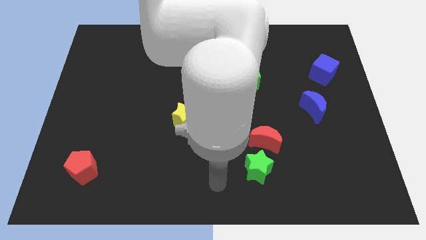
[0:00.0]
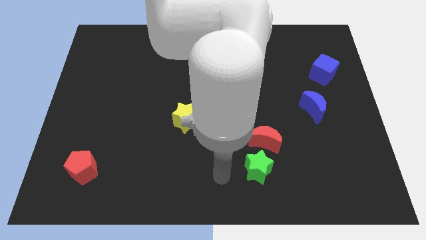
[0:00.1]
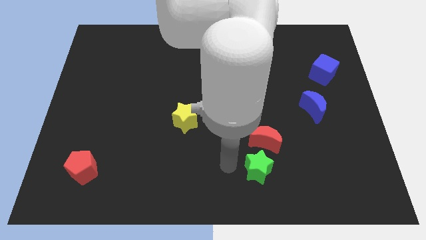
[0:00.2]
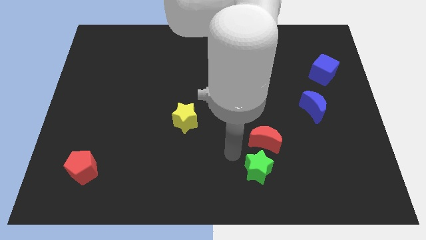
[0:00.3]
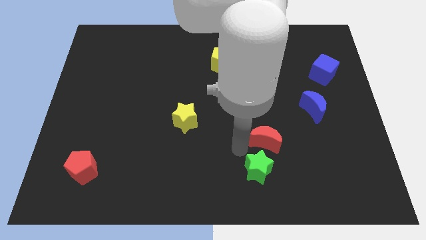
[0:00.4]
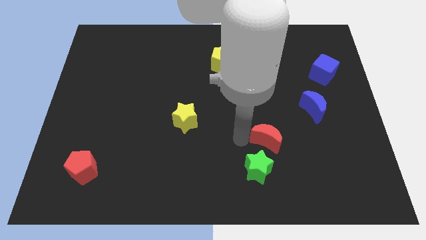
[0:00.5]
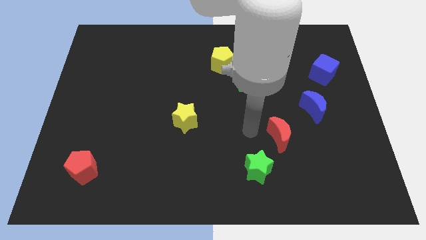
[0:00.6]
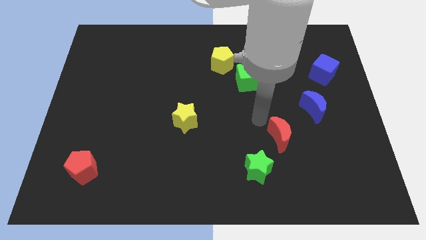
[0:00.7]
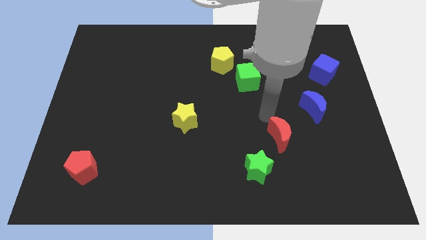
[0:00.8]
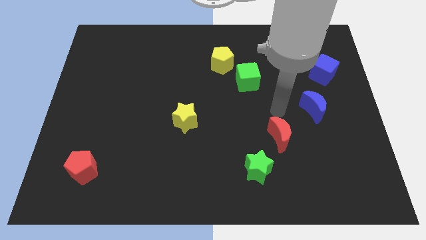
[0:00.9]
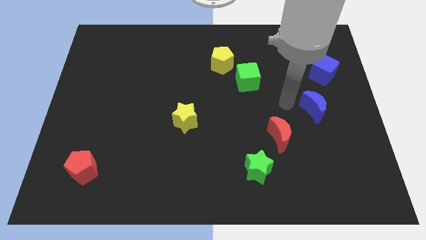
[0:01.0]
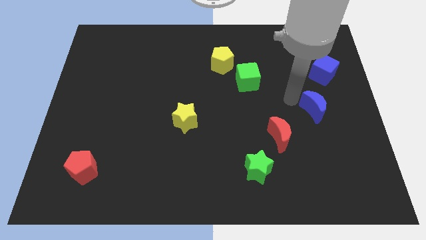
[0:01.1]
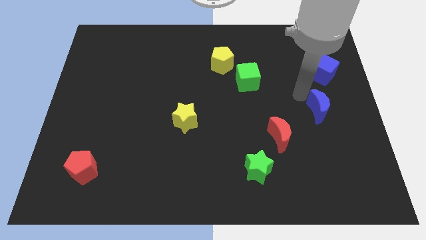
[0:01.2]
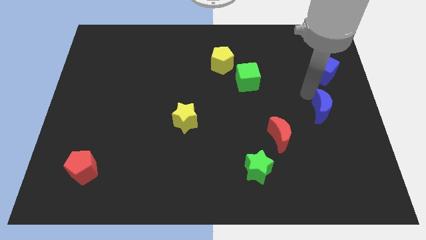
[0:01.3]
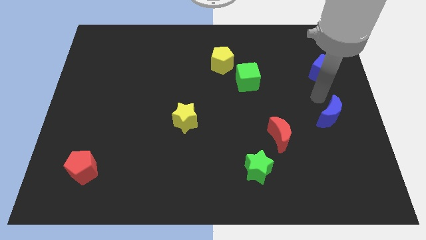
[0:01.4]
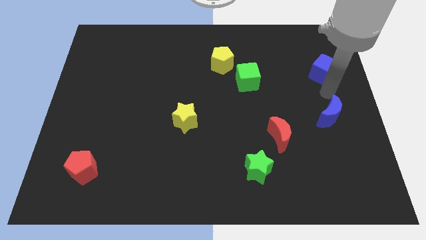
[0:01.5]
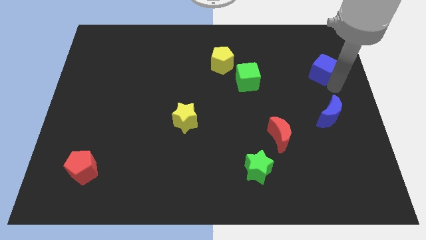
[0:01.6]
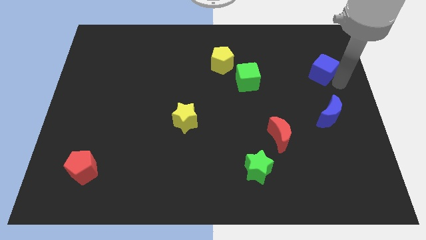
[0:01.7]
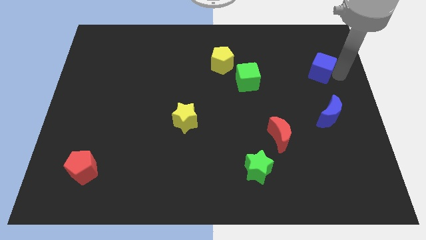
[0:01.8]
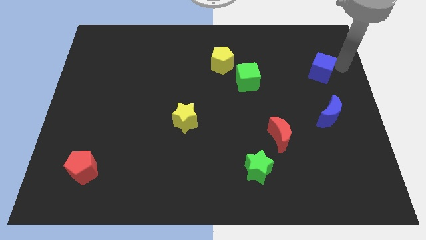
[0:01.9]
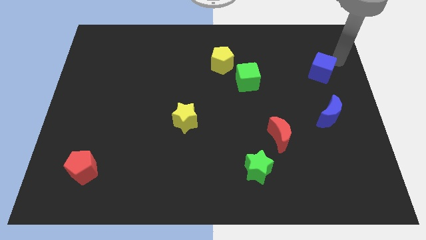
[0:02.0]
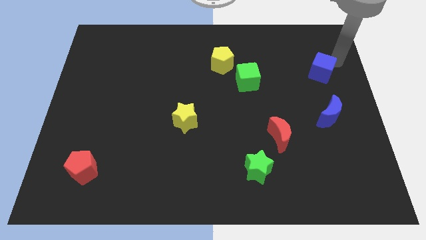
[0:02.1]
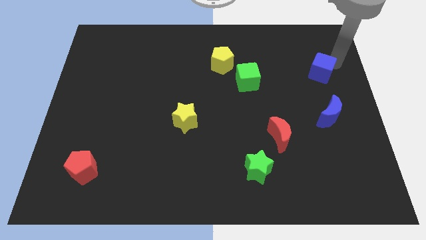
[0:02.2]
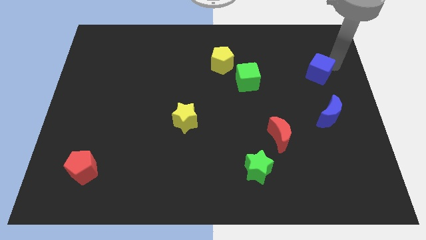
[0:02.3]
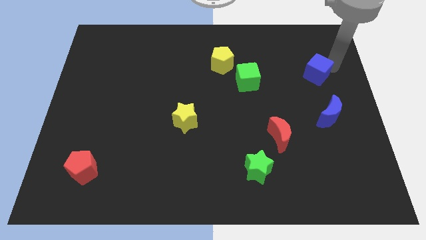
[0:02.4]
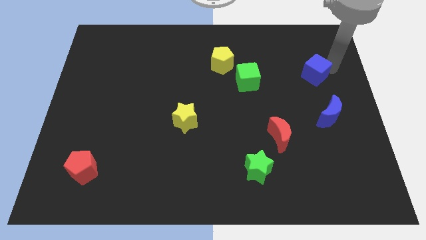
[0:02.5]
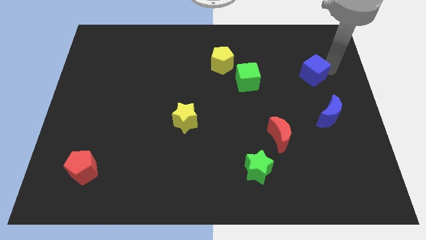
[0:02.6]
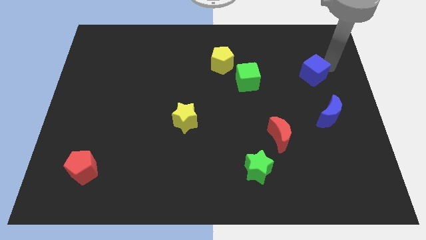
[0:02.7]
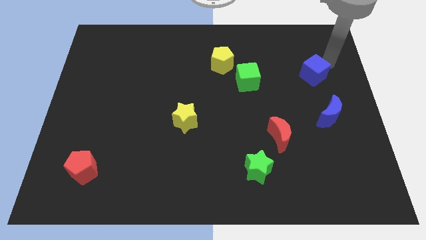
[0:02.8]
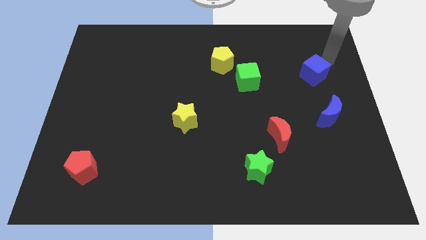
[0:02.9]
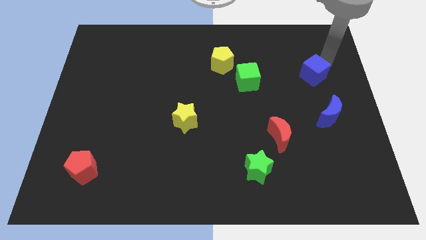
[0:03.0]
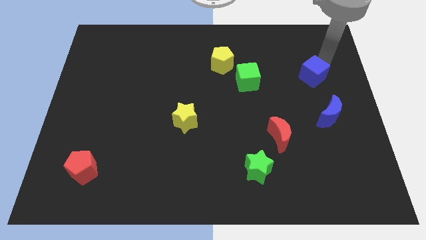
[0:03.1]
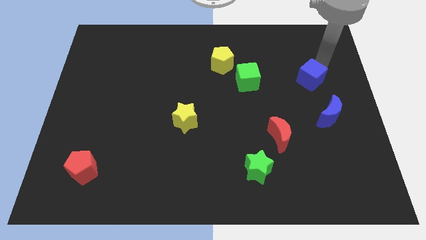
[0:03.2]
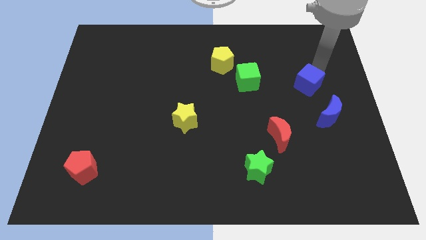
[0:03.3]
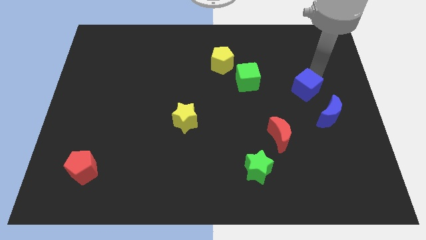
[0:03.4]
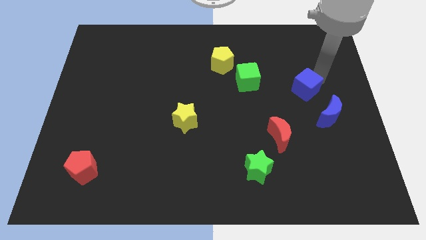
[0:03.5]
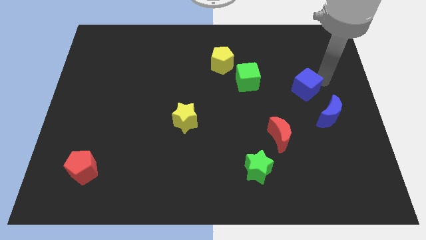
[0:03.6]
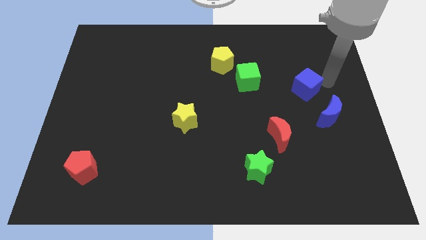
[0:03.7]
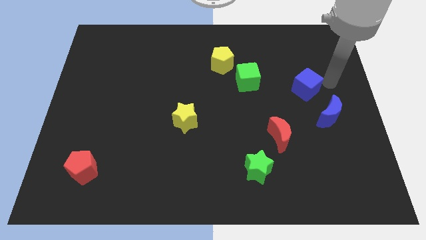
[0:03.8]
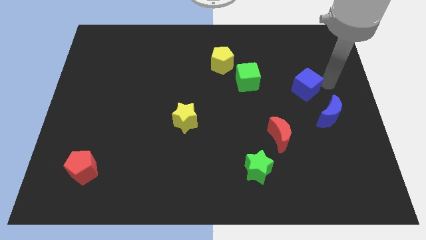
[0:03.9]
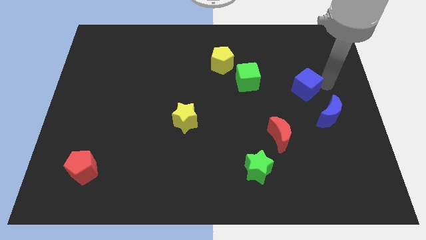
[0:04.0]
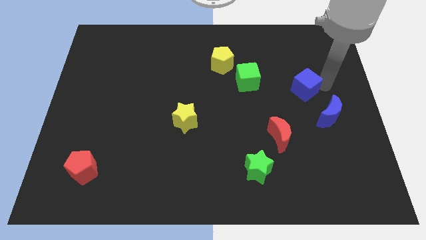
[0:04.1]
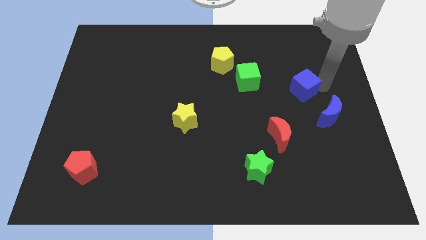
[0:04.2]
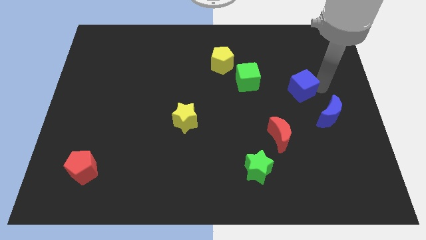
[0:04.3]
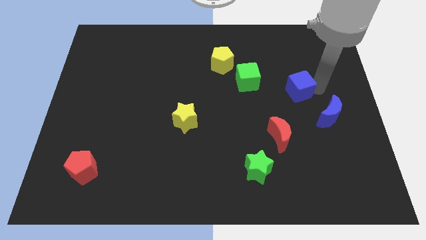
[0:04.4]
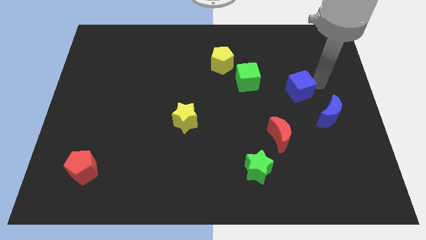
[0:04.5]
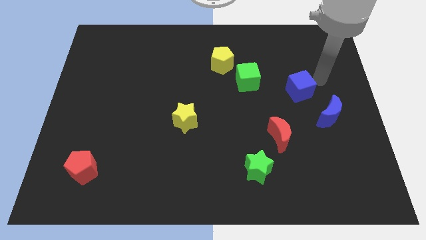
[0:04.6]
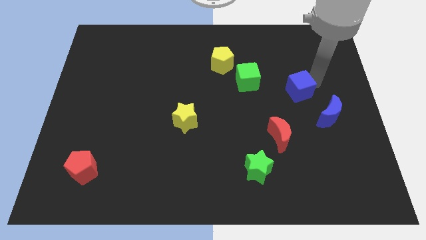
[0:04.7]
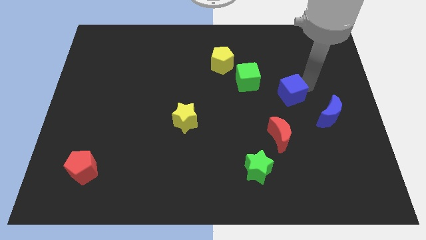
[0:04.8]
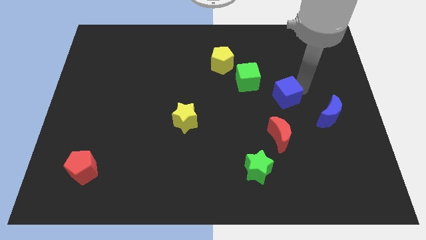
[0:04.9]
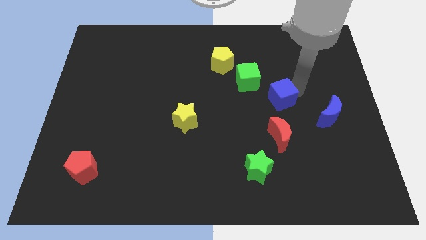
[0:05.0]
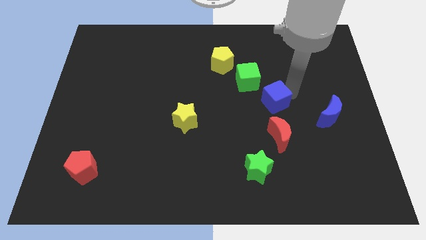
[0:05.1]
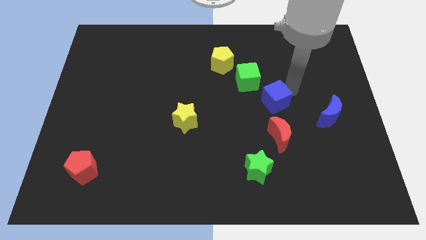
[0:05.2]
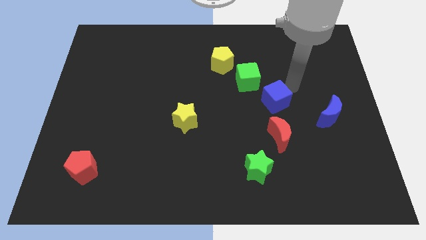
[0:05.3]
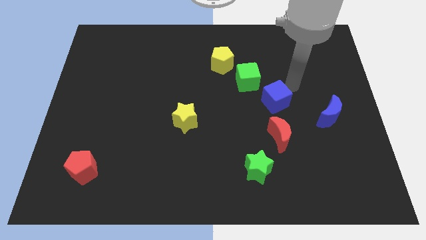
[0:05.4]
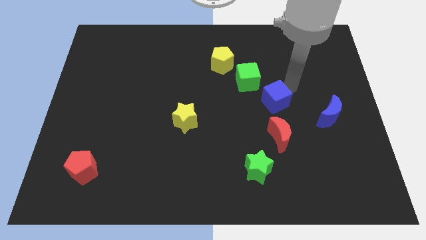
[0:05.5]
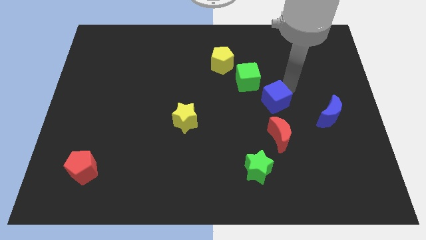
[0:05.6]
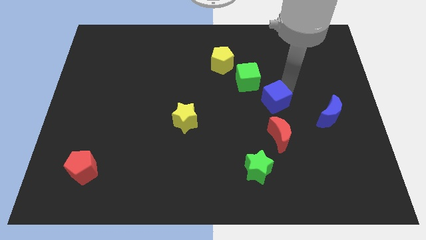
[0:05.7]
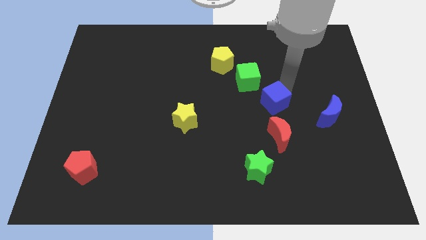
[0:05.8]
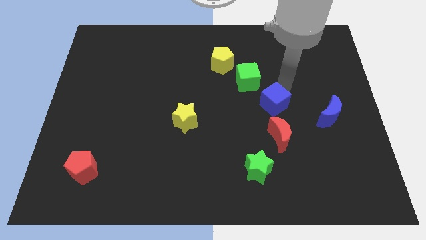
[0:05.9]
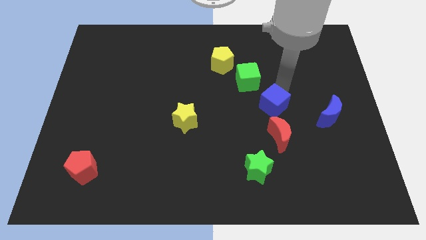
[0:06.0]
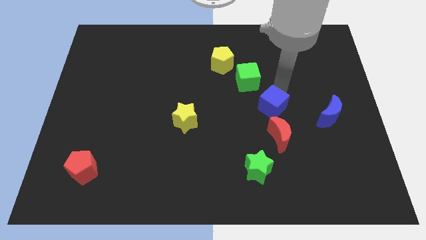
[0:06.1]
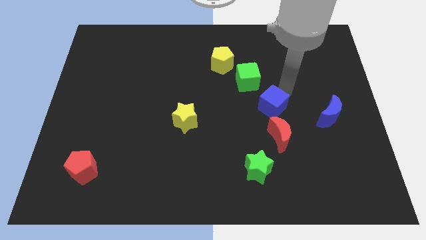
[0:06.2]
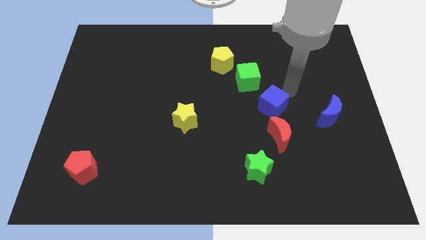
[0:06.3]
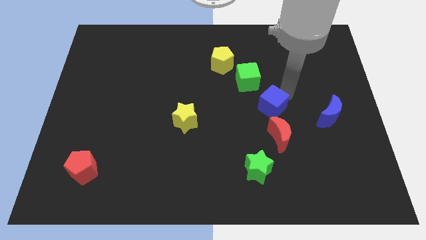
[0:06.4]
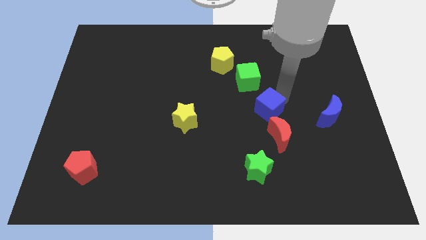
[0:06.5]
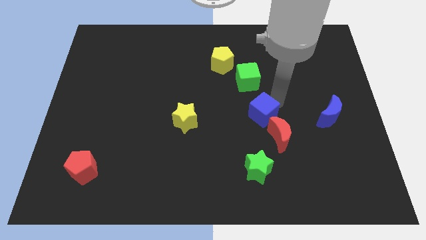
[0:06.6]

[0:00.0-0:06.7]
push the blue cube diagonally downwards and left

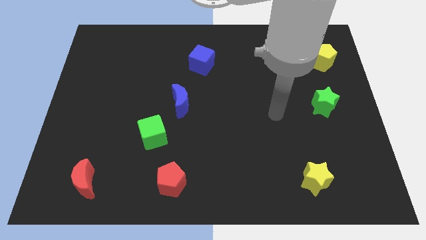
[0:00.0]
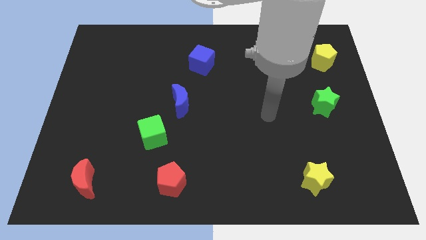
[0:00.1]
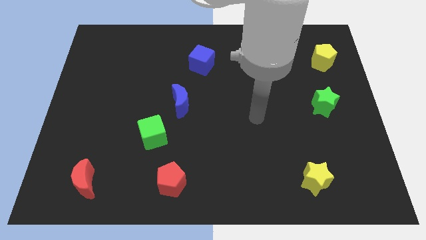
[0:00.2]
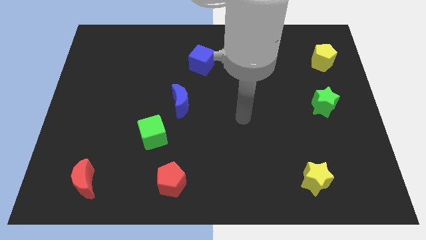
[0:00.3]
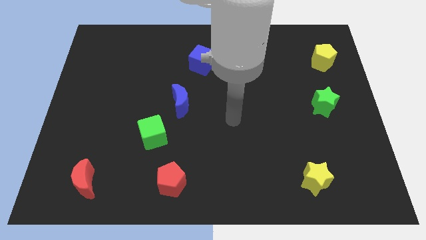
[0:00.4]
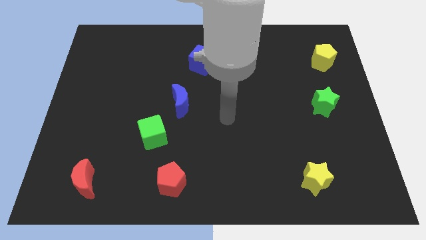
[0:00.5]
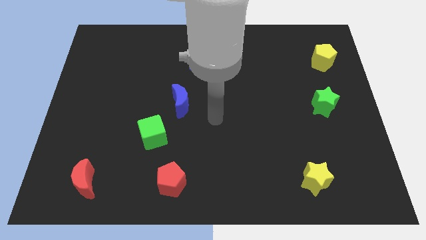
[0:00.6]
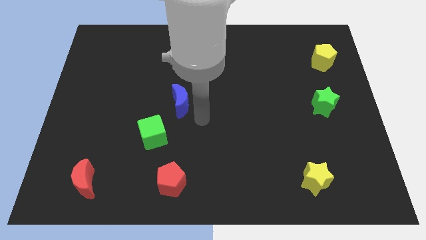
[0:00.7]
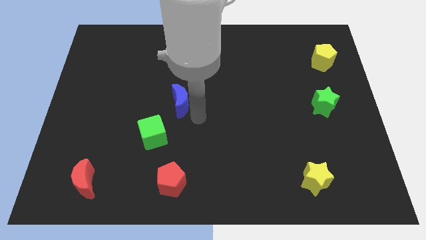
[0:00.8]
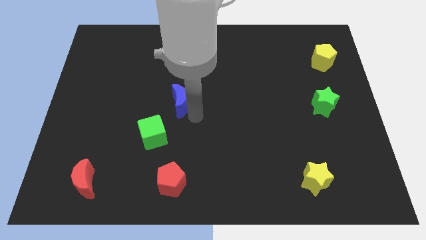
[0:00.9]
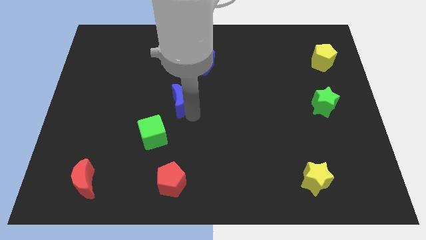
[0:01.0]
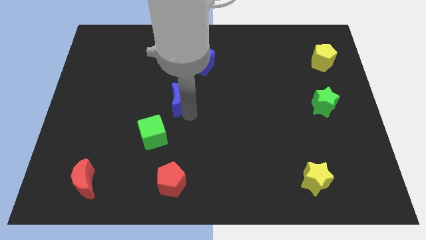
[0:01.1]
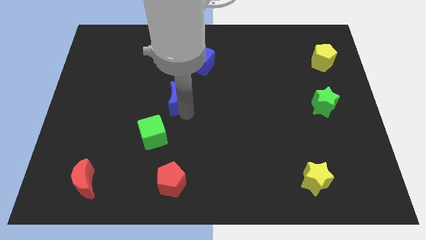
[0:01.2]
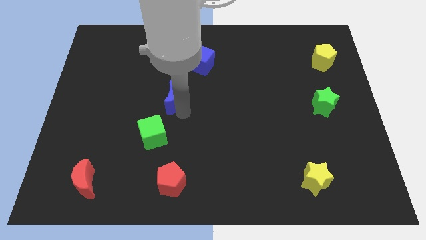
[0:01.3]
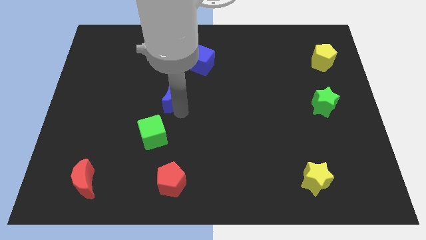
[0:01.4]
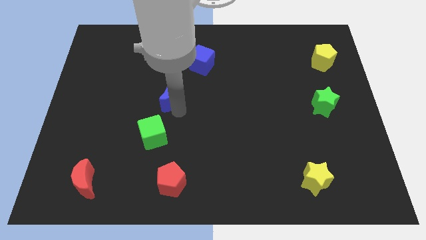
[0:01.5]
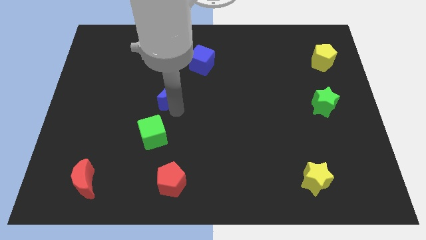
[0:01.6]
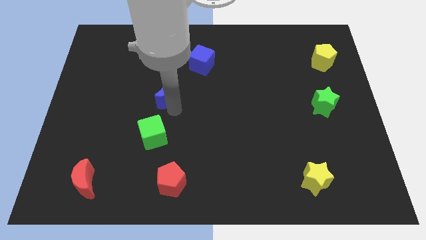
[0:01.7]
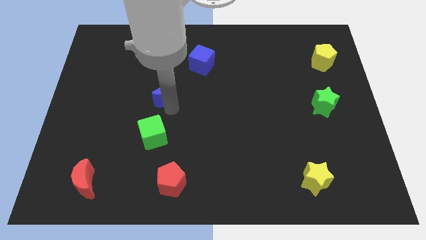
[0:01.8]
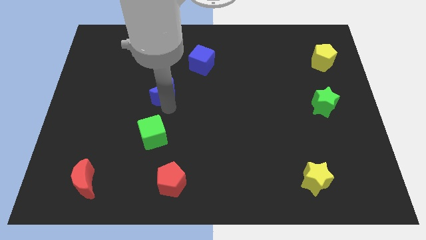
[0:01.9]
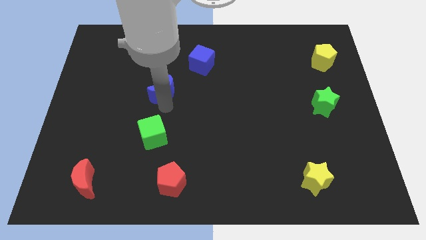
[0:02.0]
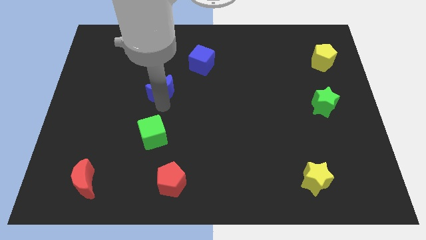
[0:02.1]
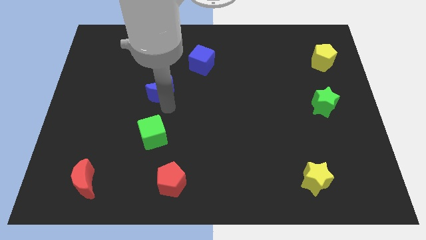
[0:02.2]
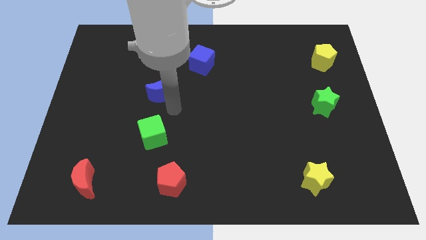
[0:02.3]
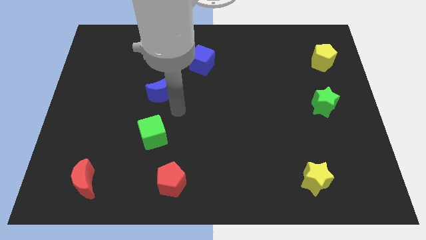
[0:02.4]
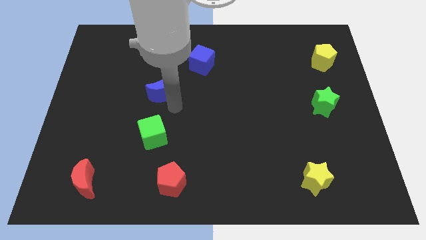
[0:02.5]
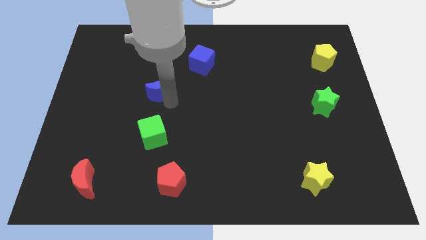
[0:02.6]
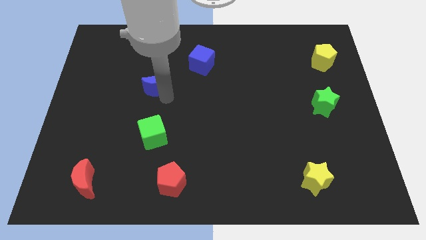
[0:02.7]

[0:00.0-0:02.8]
slightly move the blue moon up and to the left diagonally
